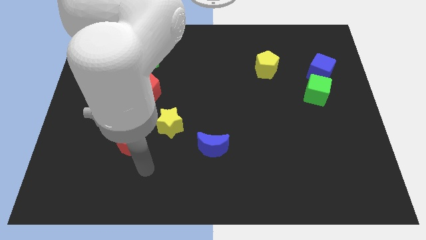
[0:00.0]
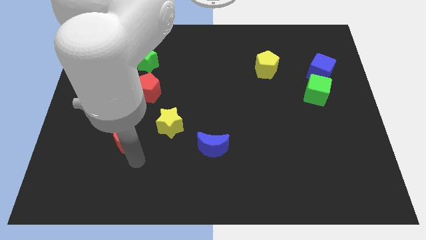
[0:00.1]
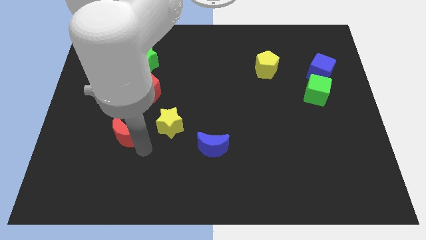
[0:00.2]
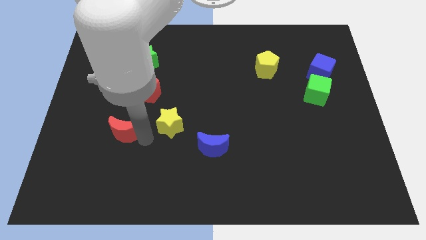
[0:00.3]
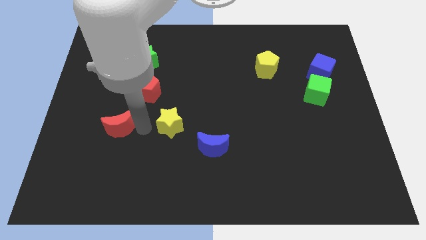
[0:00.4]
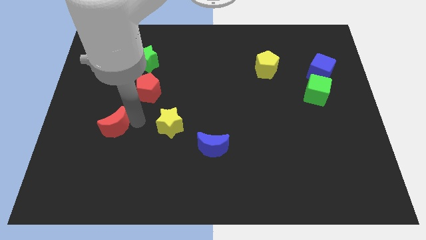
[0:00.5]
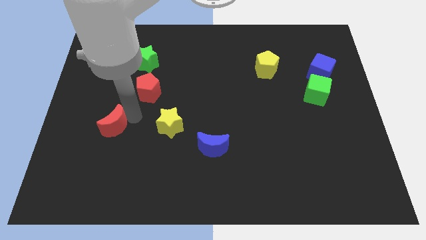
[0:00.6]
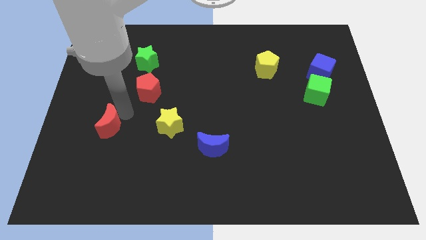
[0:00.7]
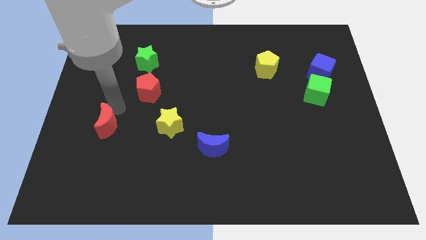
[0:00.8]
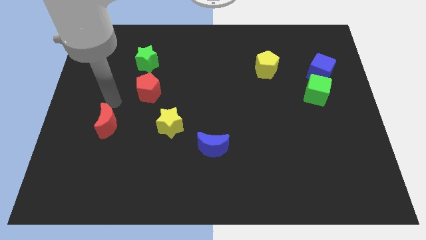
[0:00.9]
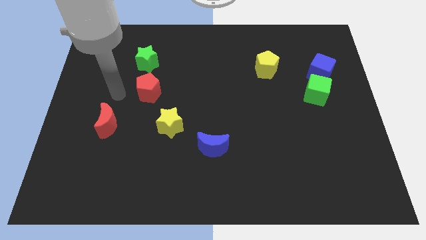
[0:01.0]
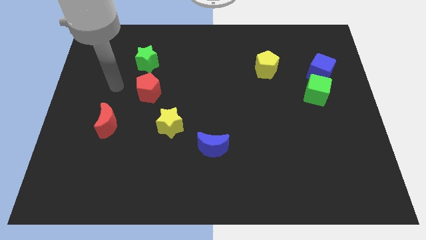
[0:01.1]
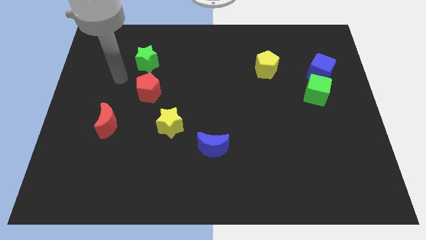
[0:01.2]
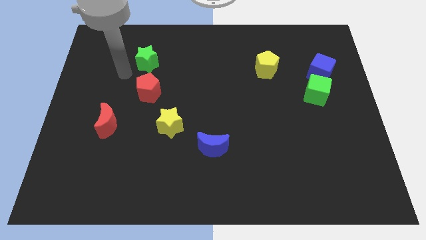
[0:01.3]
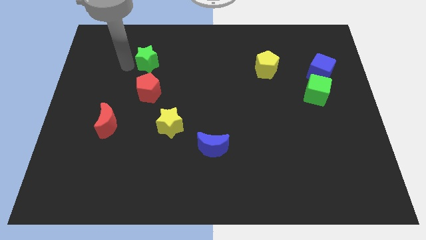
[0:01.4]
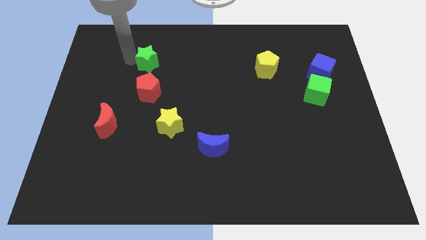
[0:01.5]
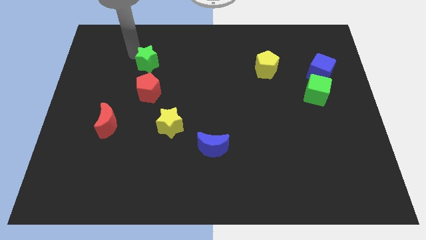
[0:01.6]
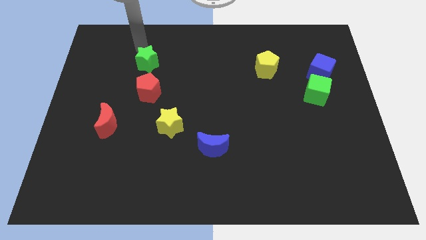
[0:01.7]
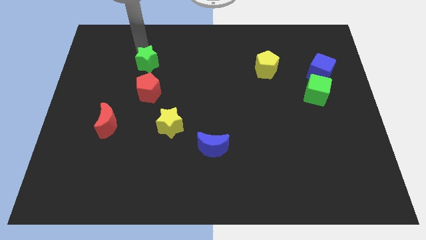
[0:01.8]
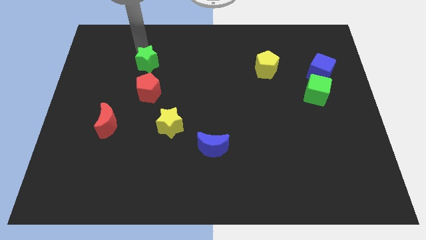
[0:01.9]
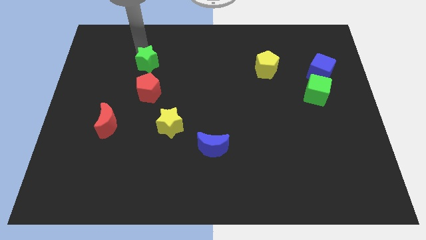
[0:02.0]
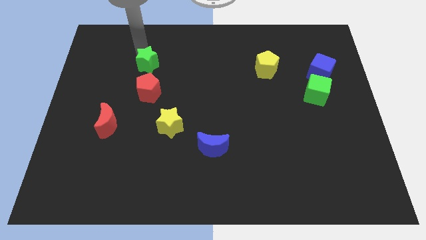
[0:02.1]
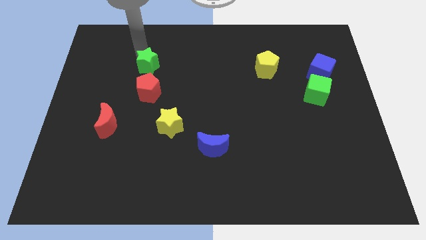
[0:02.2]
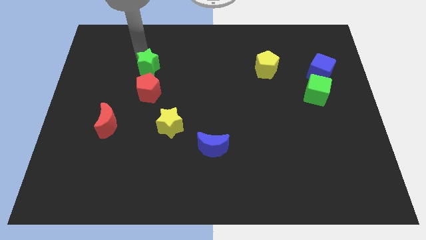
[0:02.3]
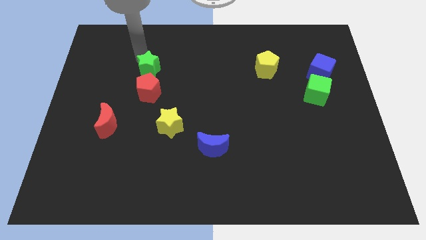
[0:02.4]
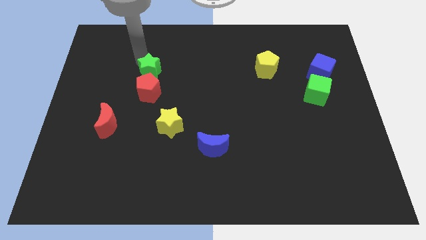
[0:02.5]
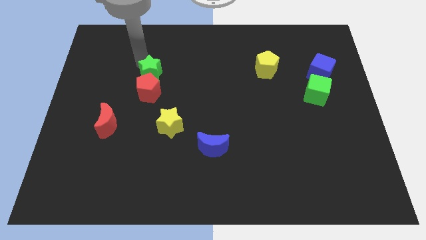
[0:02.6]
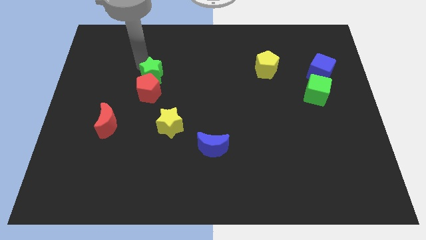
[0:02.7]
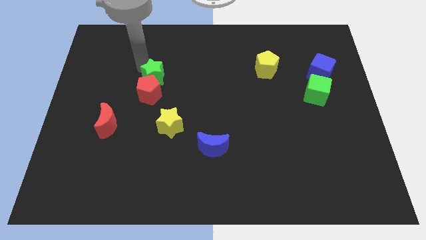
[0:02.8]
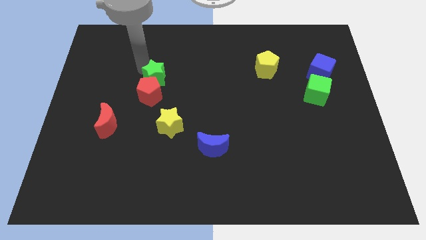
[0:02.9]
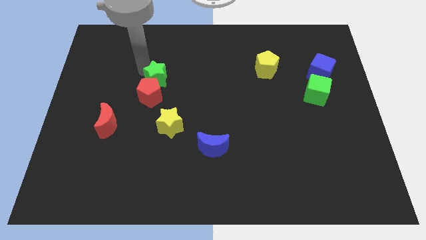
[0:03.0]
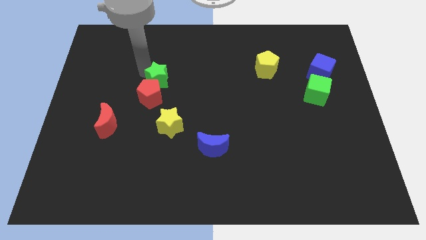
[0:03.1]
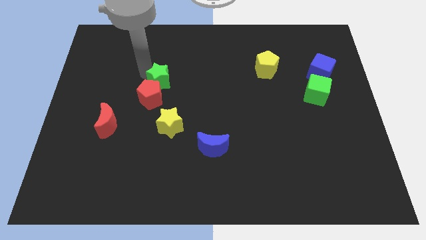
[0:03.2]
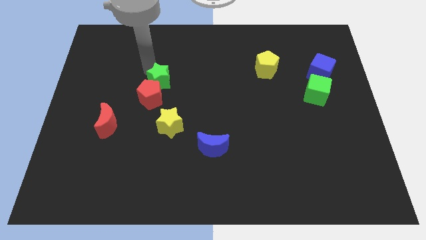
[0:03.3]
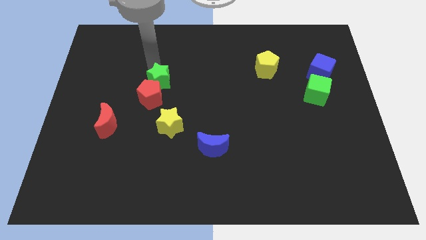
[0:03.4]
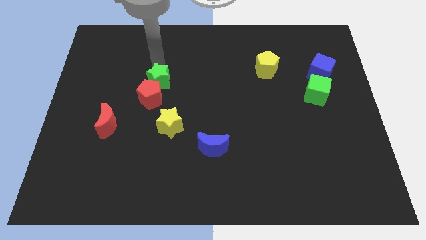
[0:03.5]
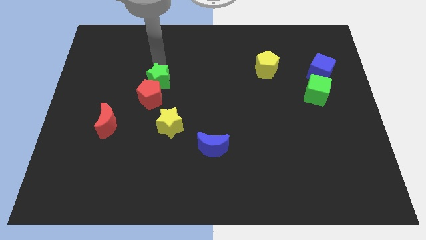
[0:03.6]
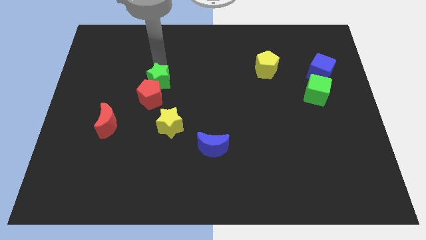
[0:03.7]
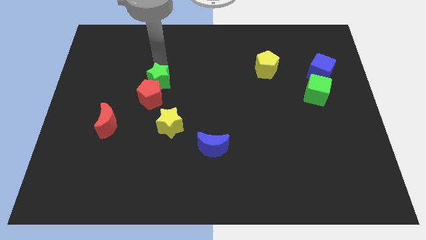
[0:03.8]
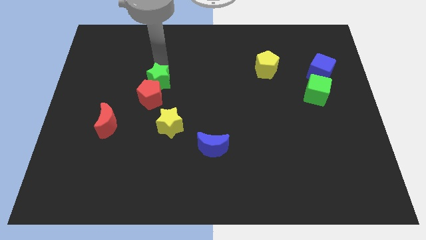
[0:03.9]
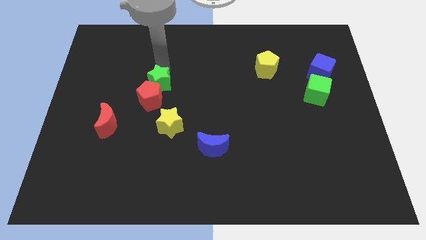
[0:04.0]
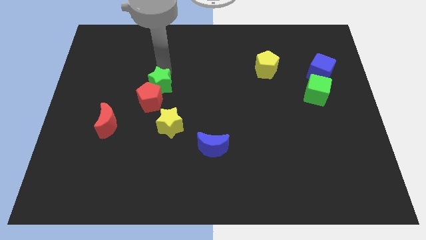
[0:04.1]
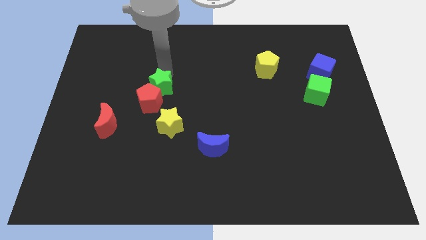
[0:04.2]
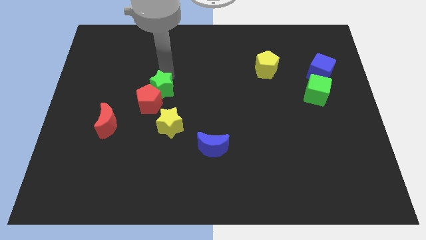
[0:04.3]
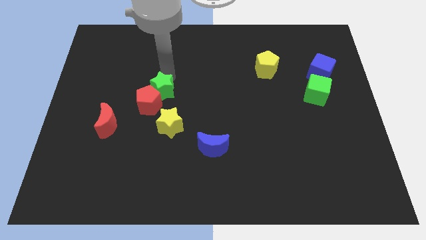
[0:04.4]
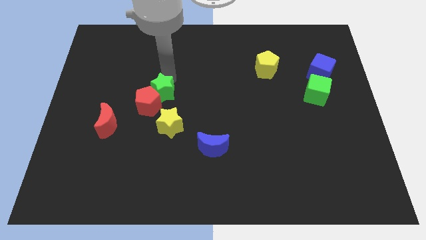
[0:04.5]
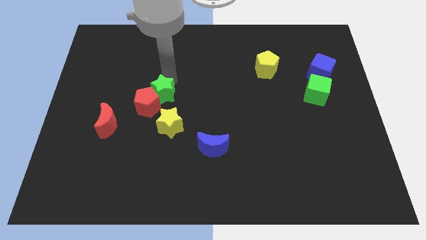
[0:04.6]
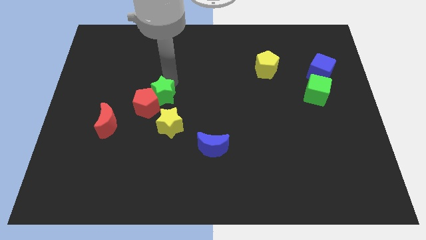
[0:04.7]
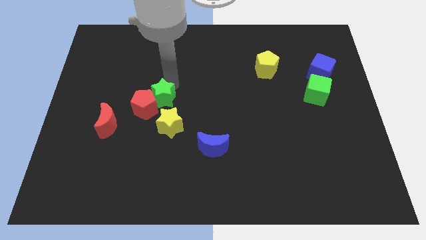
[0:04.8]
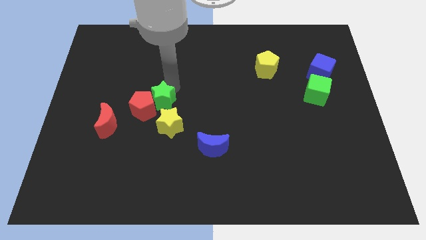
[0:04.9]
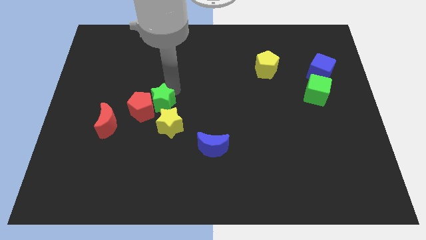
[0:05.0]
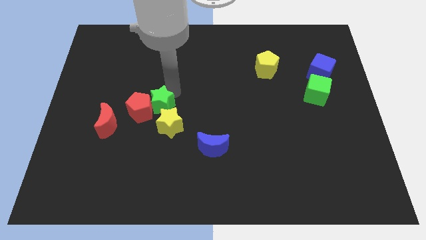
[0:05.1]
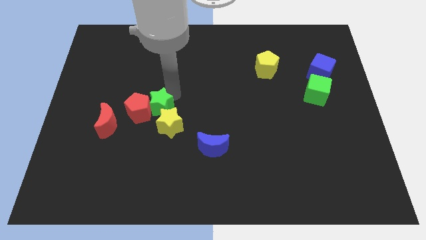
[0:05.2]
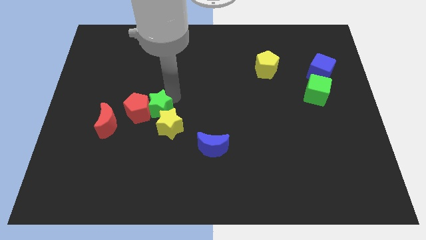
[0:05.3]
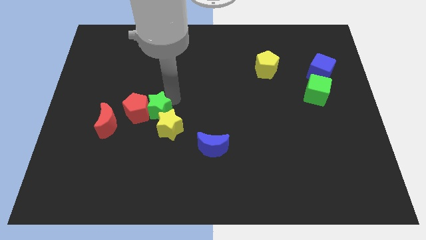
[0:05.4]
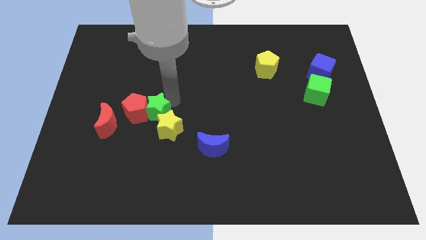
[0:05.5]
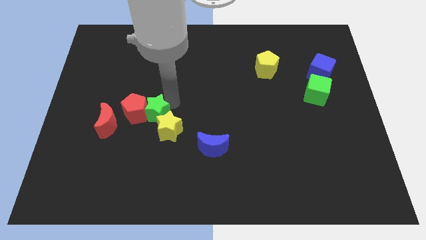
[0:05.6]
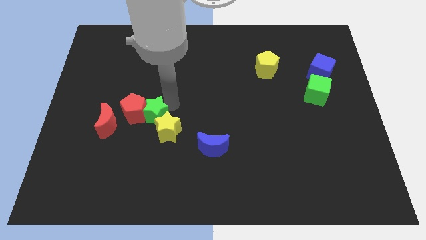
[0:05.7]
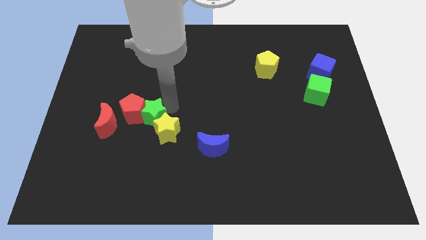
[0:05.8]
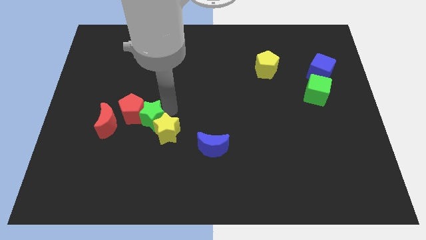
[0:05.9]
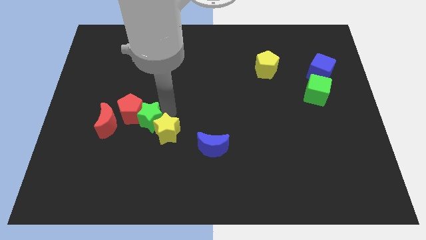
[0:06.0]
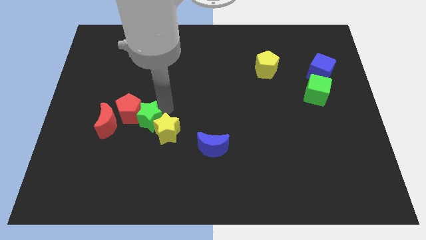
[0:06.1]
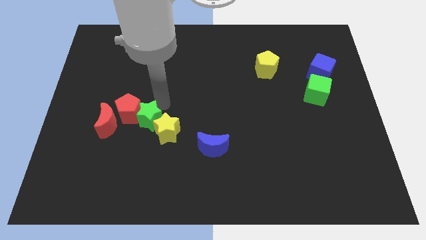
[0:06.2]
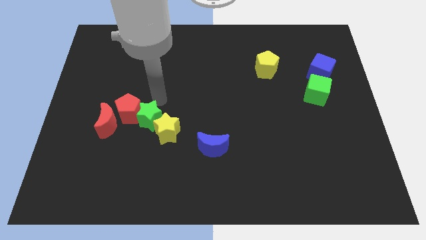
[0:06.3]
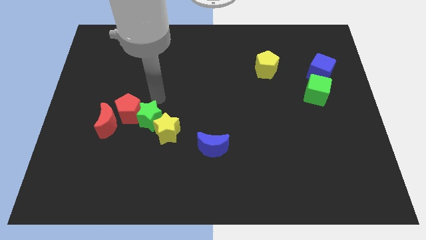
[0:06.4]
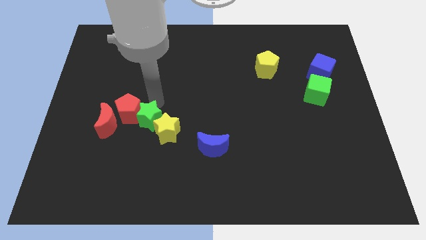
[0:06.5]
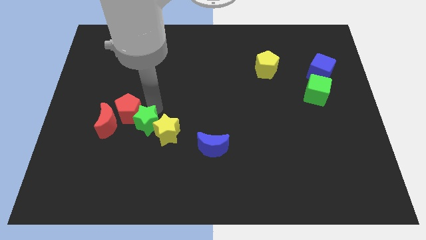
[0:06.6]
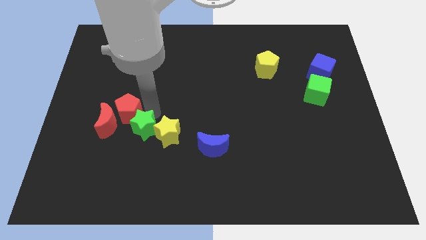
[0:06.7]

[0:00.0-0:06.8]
push the green star down

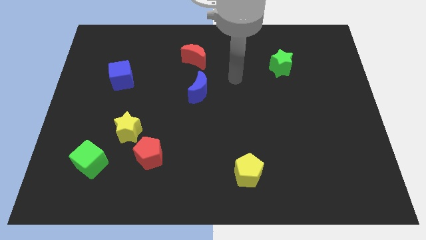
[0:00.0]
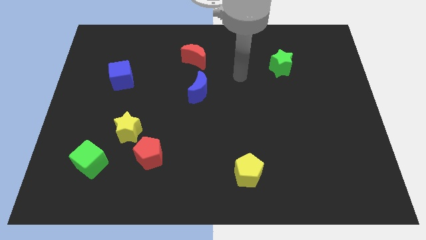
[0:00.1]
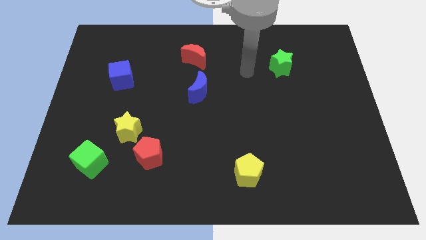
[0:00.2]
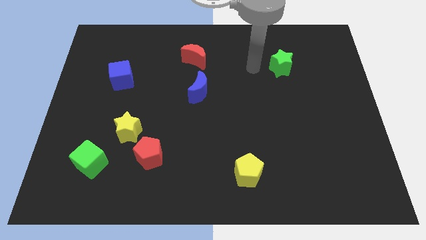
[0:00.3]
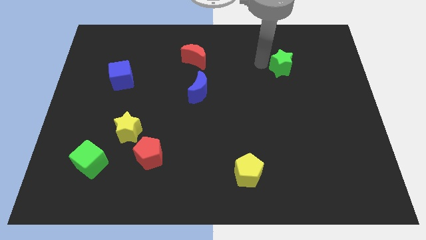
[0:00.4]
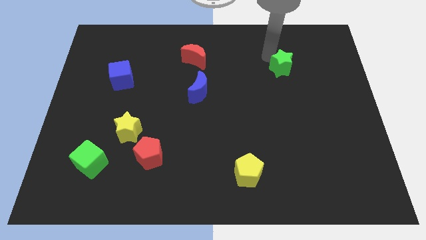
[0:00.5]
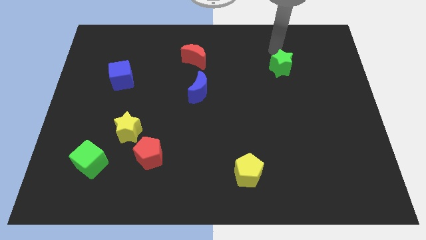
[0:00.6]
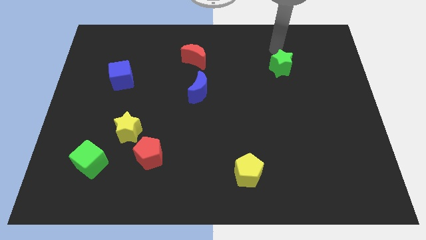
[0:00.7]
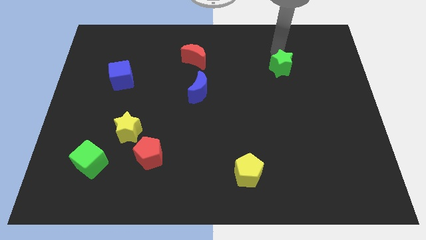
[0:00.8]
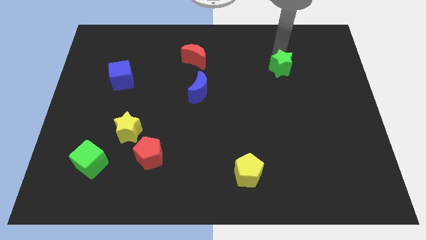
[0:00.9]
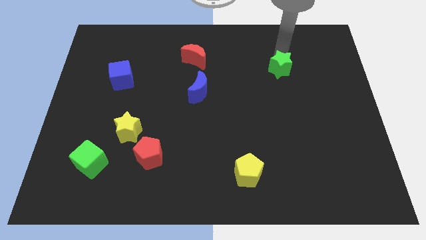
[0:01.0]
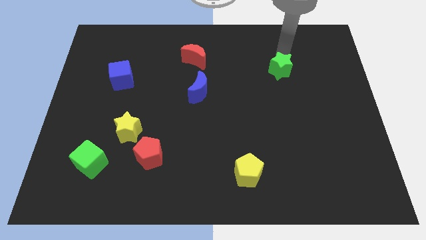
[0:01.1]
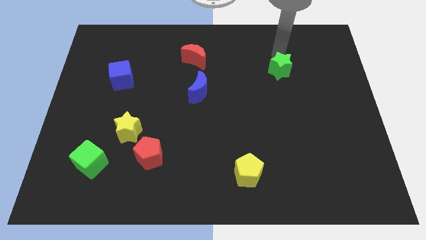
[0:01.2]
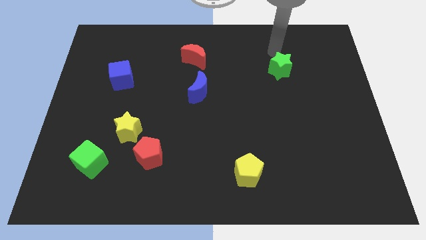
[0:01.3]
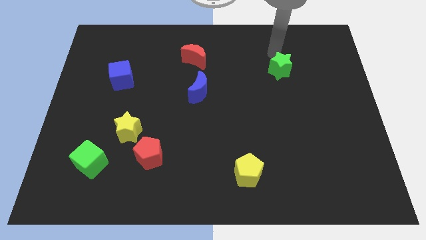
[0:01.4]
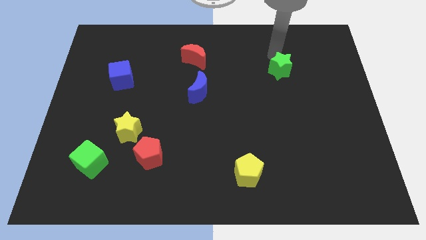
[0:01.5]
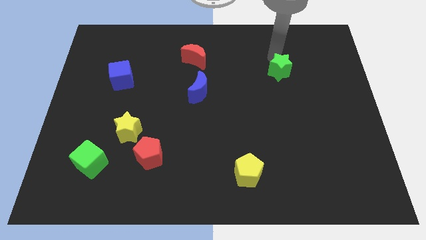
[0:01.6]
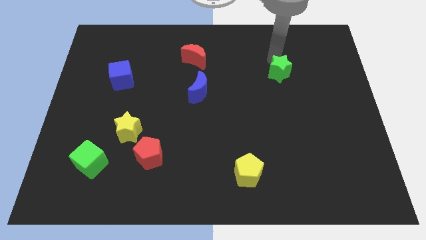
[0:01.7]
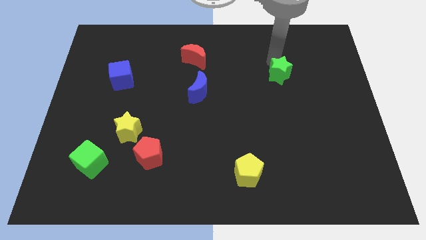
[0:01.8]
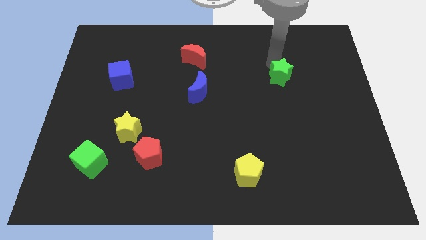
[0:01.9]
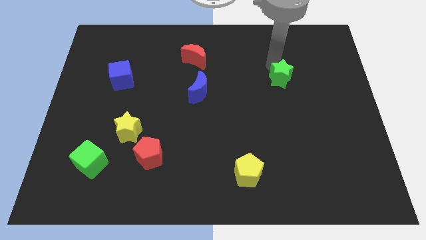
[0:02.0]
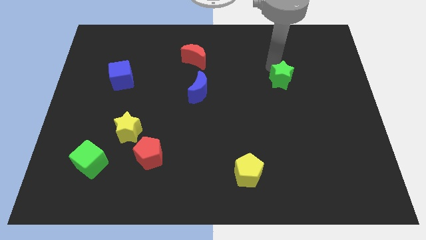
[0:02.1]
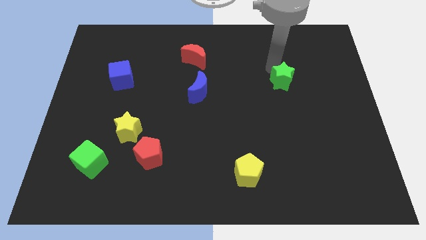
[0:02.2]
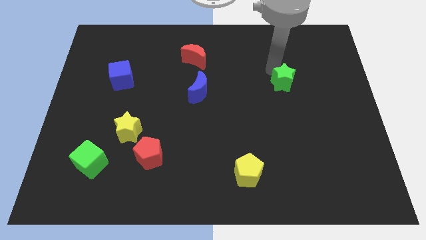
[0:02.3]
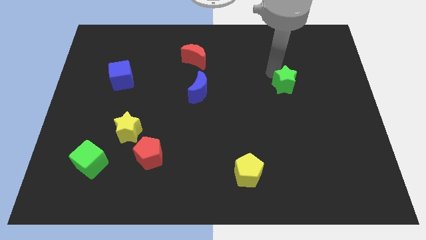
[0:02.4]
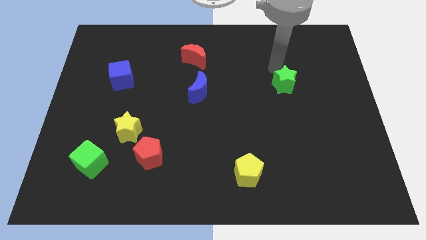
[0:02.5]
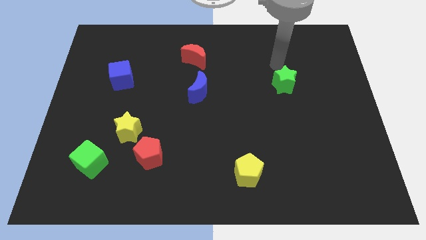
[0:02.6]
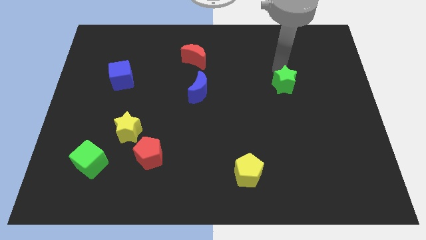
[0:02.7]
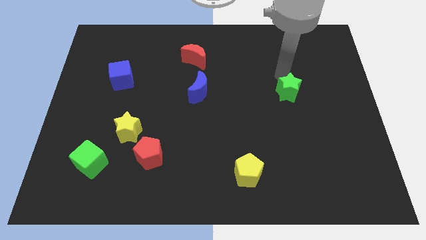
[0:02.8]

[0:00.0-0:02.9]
move the green star a little bit down
